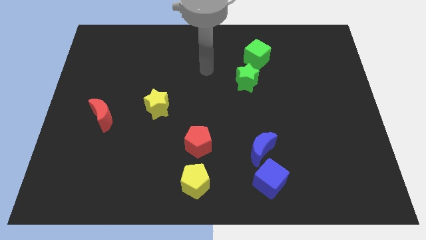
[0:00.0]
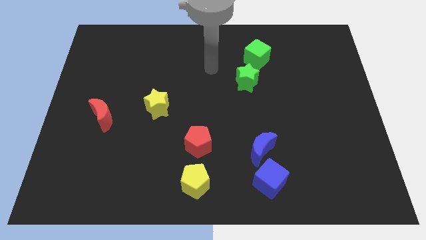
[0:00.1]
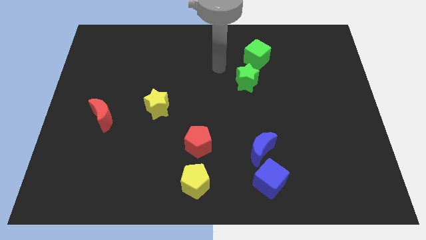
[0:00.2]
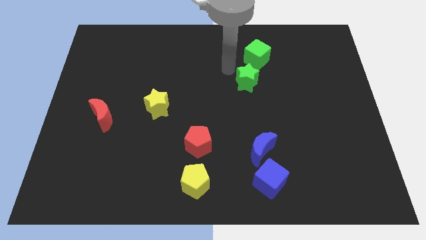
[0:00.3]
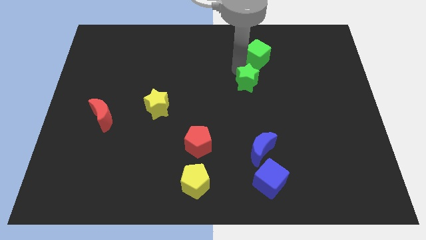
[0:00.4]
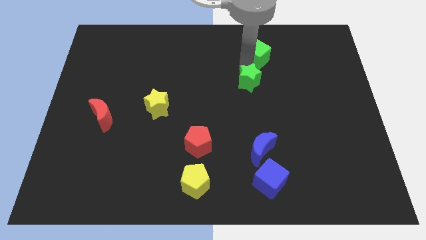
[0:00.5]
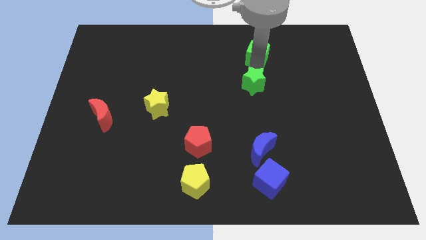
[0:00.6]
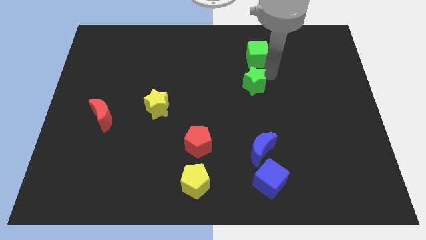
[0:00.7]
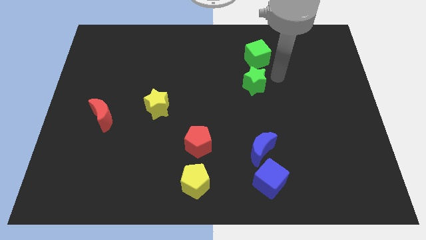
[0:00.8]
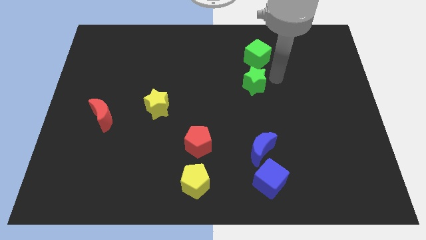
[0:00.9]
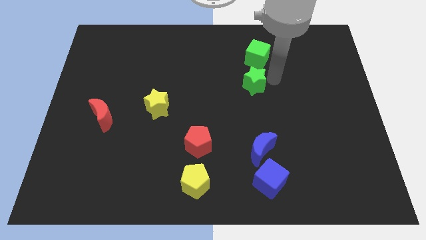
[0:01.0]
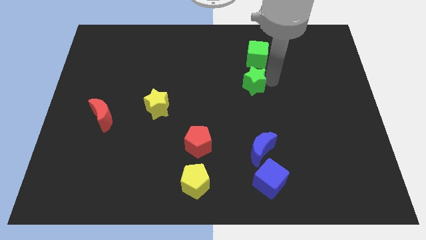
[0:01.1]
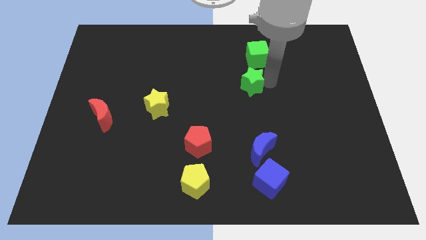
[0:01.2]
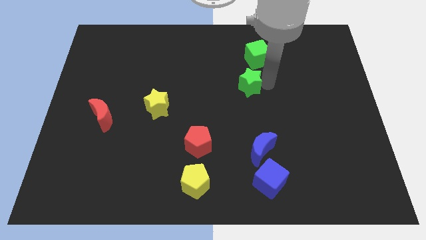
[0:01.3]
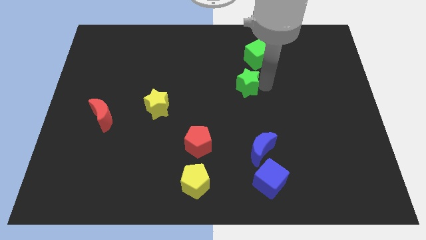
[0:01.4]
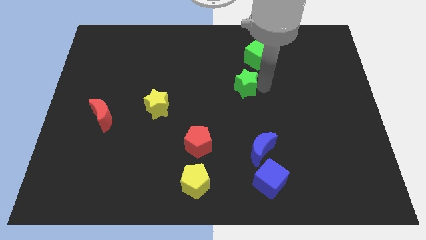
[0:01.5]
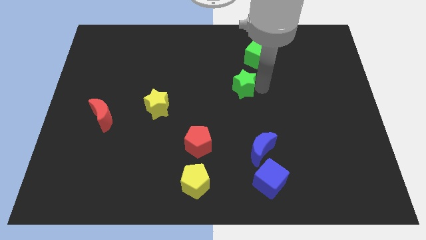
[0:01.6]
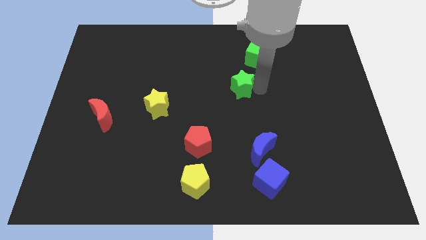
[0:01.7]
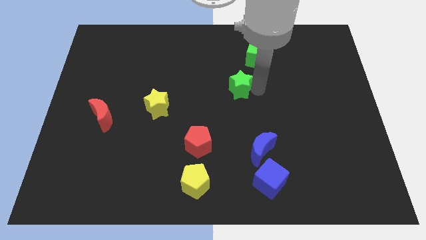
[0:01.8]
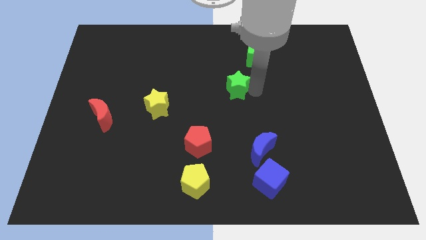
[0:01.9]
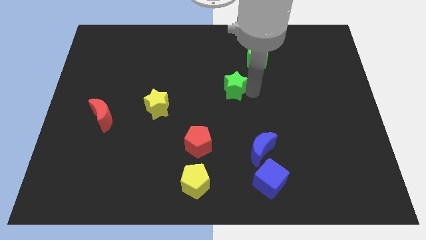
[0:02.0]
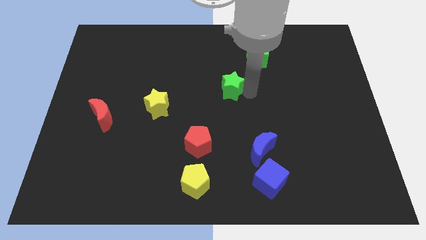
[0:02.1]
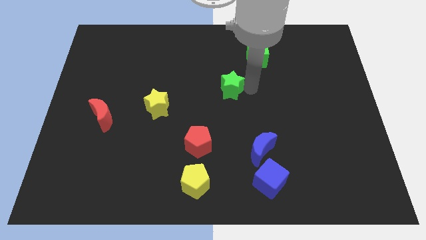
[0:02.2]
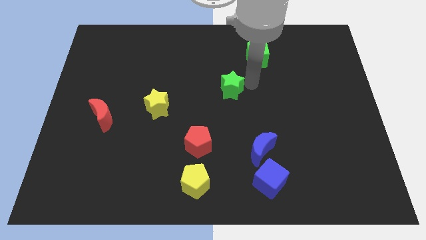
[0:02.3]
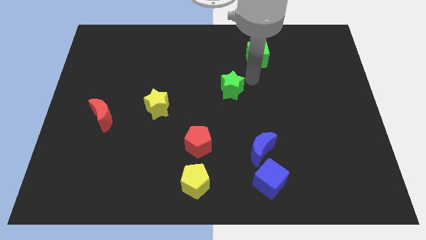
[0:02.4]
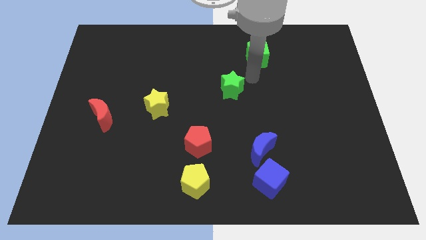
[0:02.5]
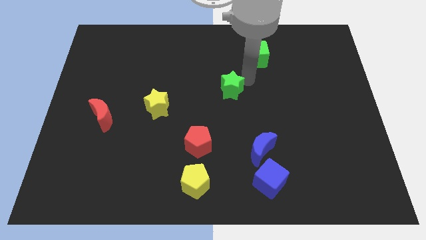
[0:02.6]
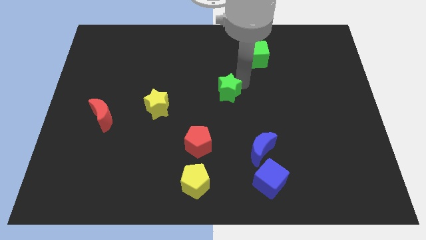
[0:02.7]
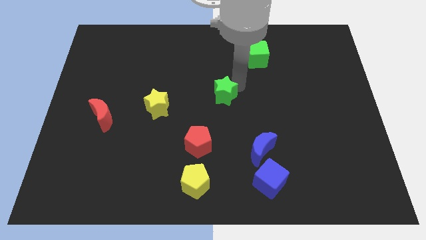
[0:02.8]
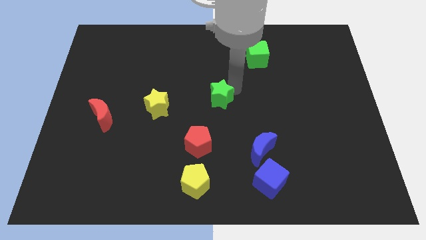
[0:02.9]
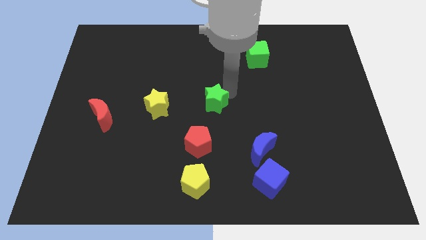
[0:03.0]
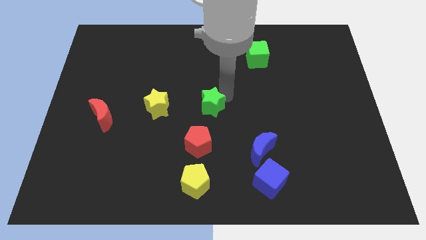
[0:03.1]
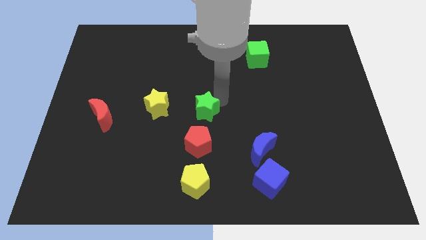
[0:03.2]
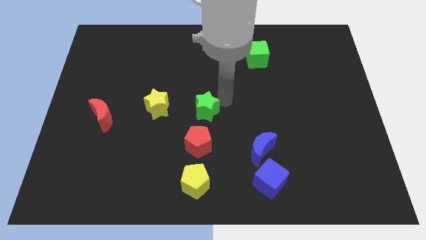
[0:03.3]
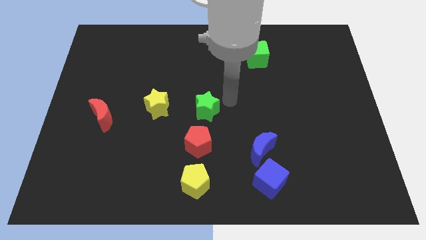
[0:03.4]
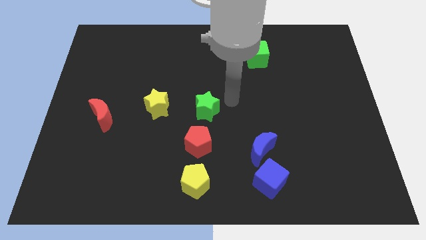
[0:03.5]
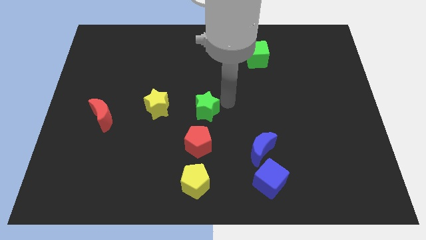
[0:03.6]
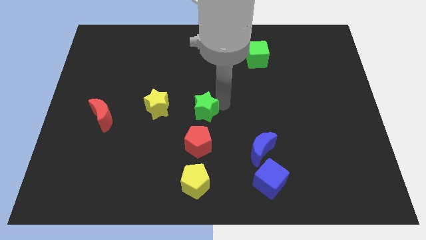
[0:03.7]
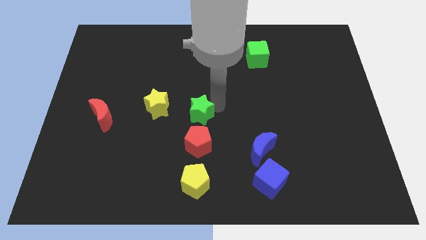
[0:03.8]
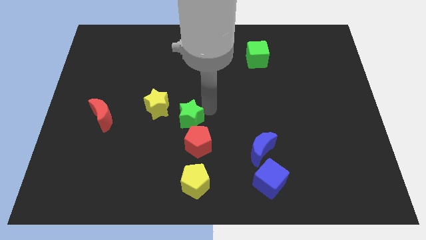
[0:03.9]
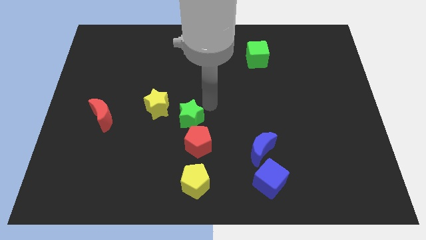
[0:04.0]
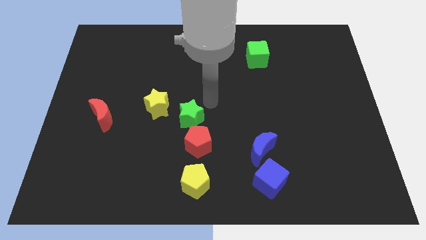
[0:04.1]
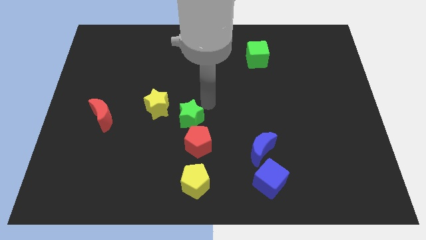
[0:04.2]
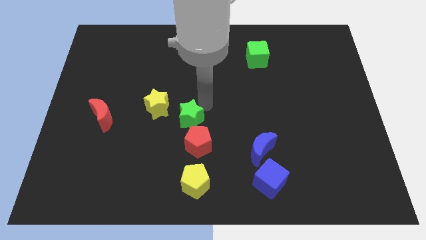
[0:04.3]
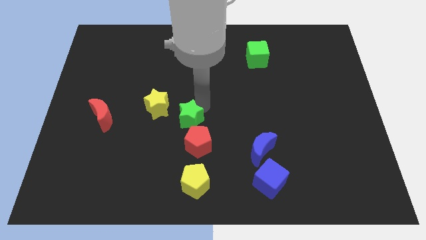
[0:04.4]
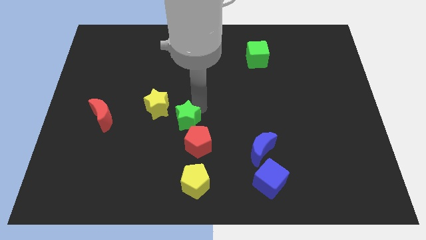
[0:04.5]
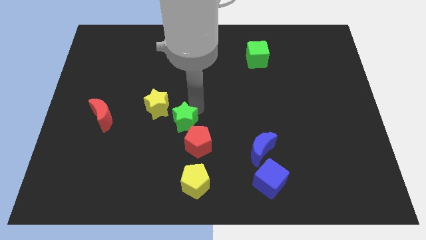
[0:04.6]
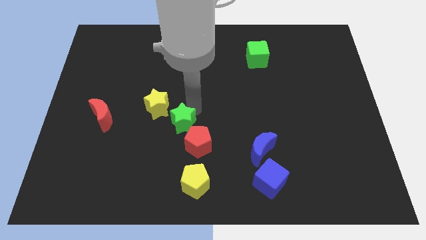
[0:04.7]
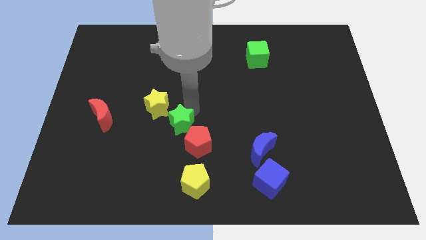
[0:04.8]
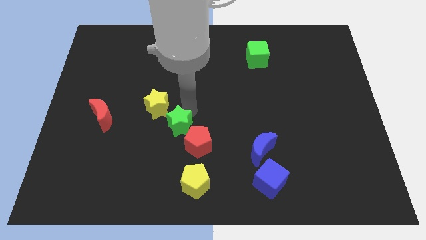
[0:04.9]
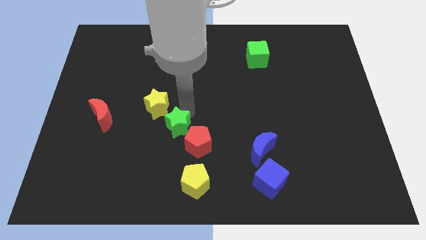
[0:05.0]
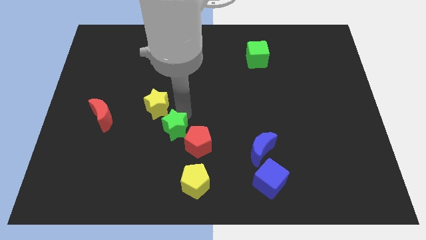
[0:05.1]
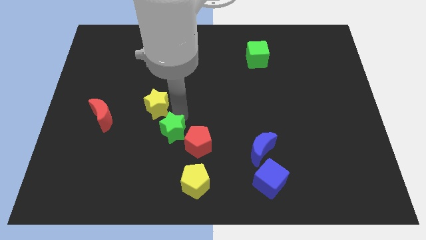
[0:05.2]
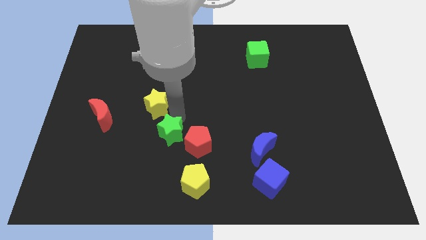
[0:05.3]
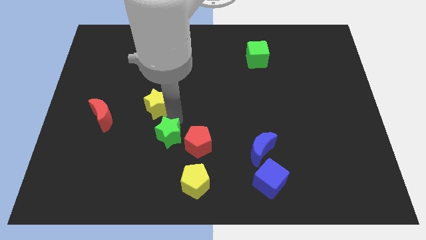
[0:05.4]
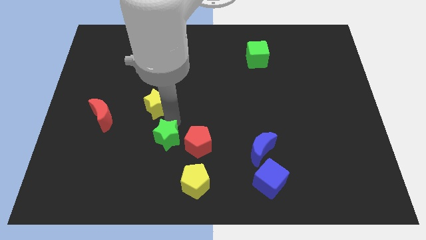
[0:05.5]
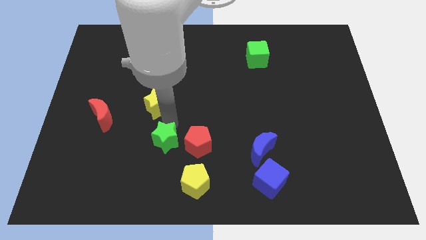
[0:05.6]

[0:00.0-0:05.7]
slide the green star to the top left of the yellow pentagon

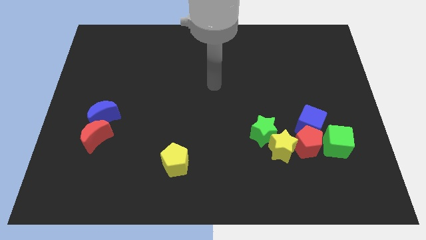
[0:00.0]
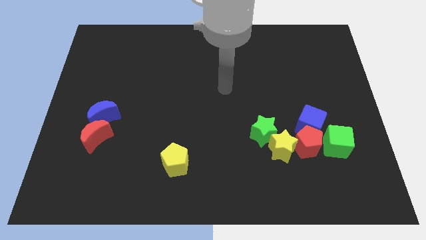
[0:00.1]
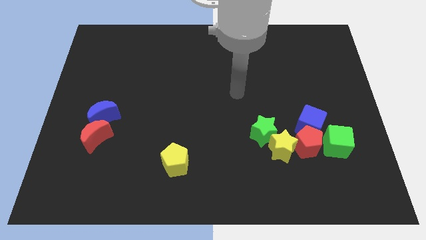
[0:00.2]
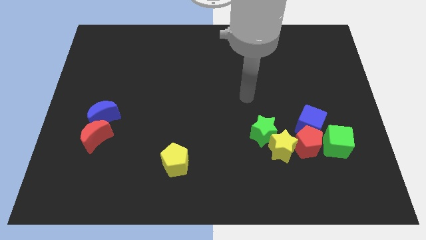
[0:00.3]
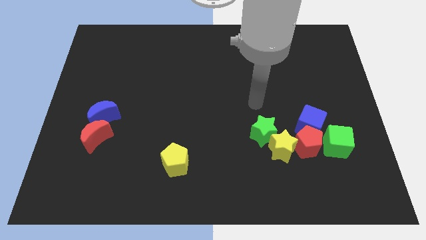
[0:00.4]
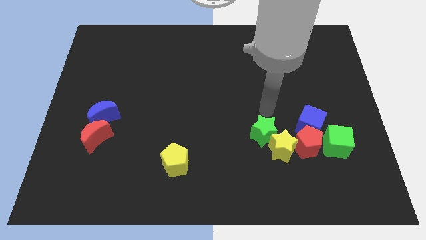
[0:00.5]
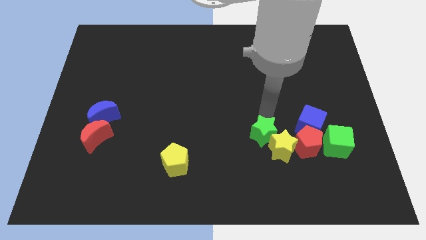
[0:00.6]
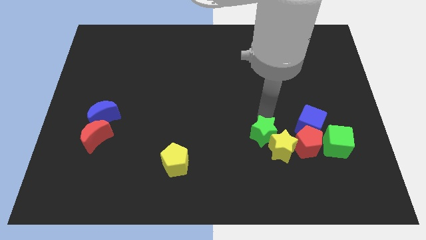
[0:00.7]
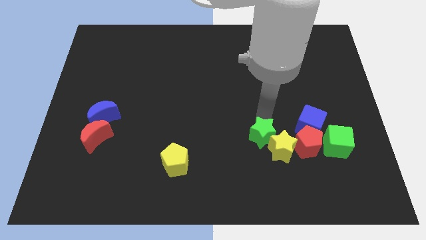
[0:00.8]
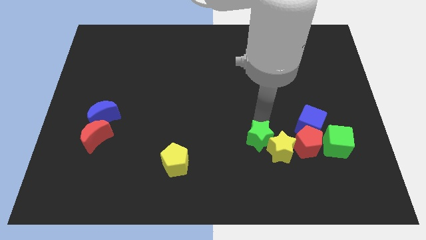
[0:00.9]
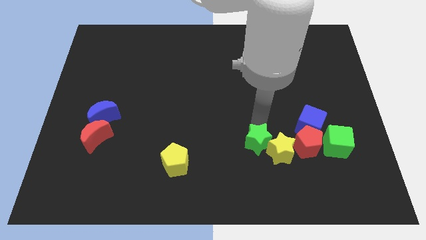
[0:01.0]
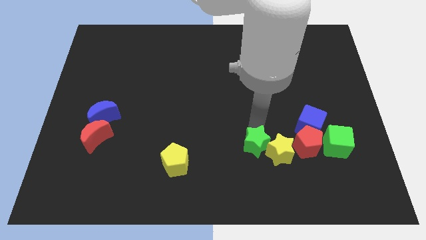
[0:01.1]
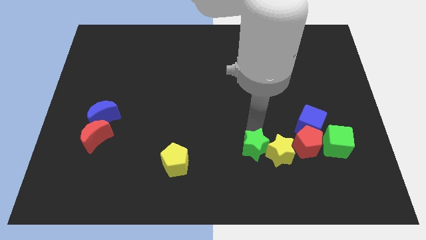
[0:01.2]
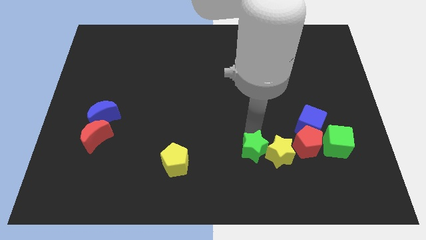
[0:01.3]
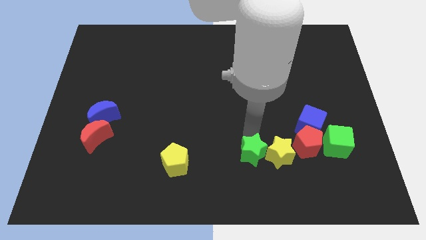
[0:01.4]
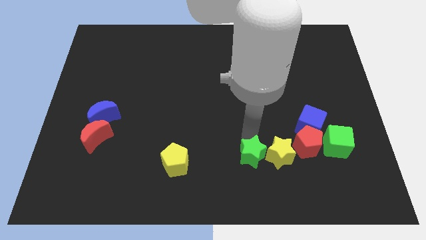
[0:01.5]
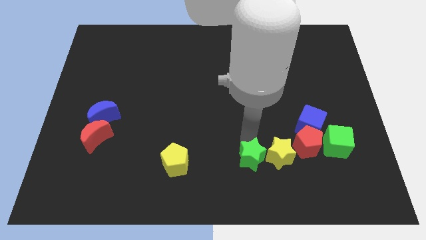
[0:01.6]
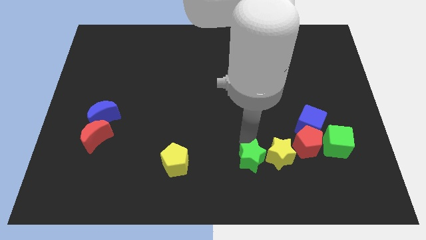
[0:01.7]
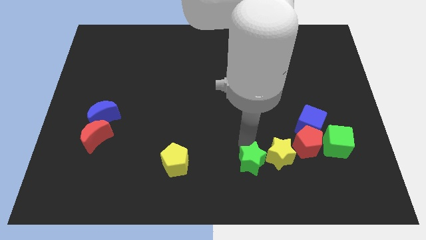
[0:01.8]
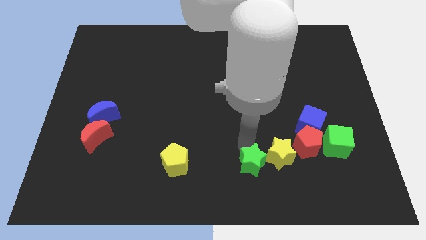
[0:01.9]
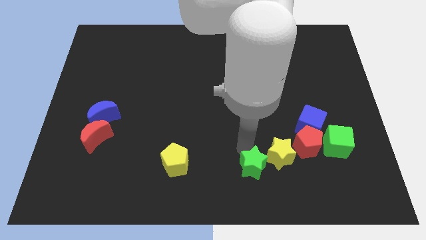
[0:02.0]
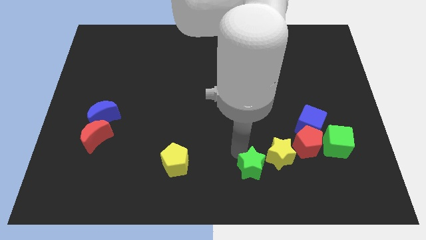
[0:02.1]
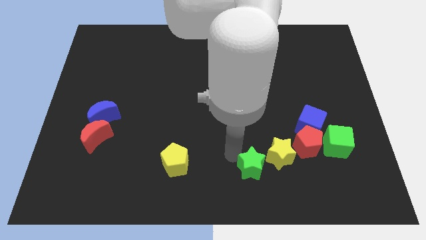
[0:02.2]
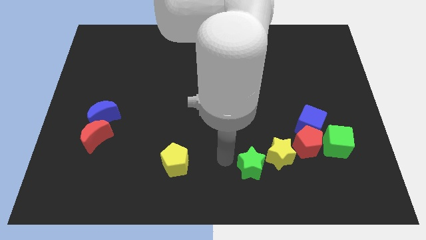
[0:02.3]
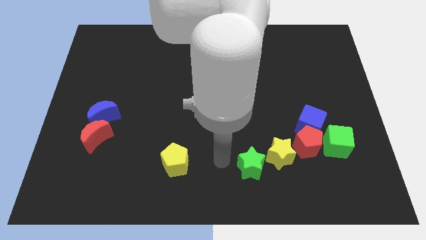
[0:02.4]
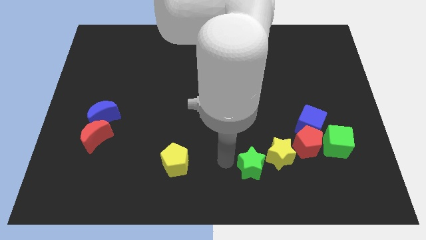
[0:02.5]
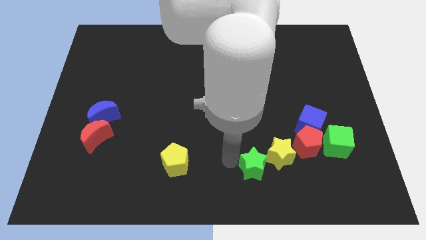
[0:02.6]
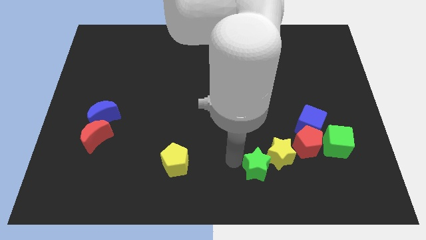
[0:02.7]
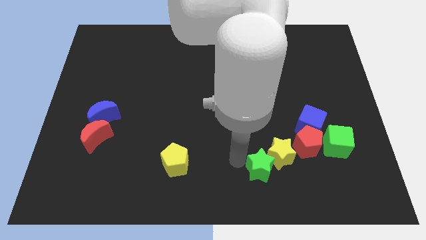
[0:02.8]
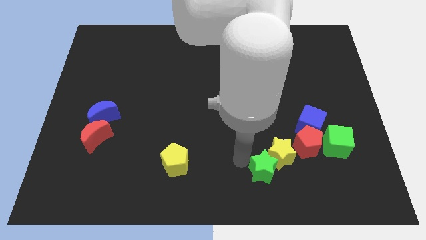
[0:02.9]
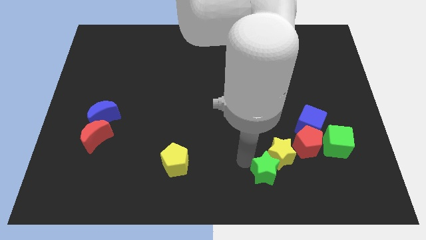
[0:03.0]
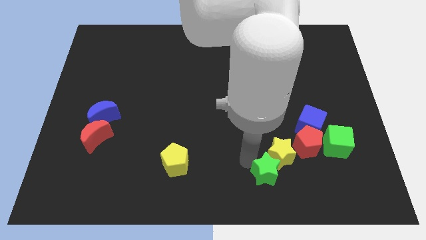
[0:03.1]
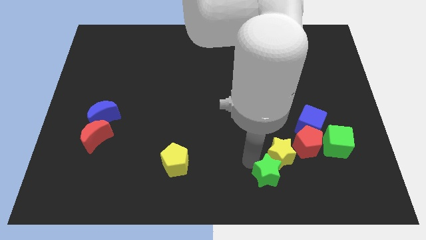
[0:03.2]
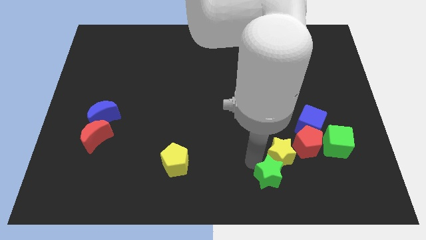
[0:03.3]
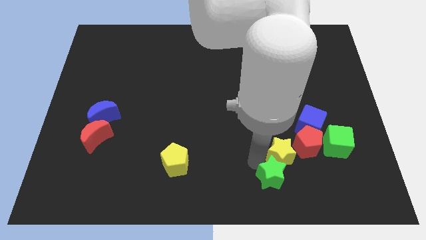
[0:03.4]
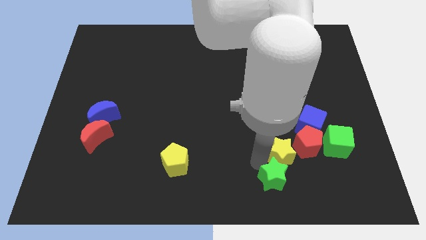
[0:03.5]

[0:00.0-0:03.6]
move the green star to the bottom right side of the yellow star
